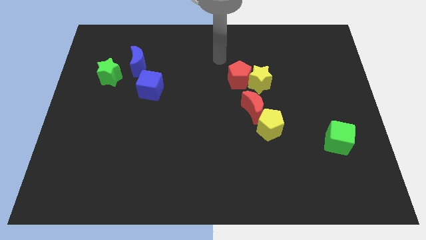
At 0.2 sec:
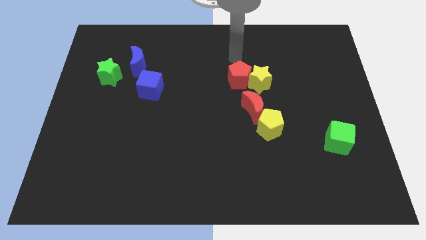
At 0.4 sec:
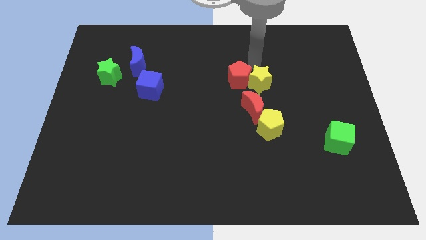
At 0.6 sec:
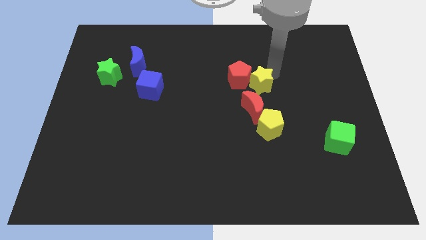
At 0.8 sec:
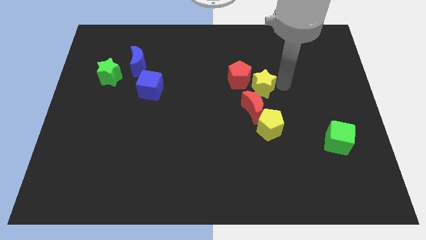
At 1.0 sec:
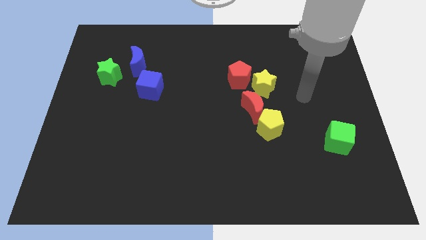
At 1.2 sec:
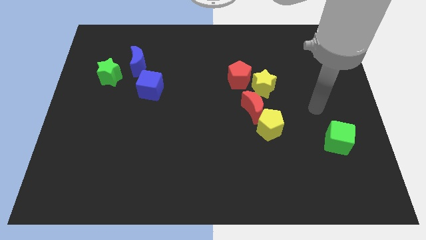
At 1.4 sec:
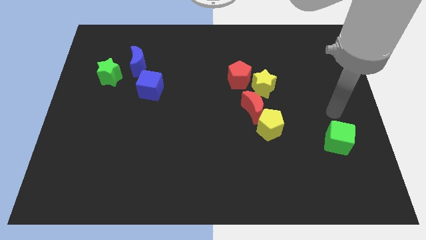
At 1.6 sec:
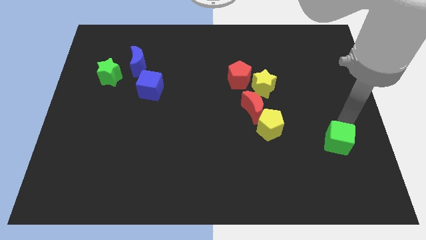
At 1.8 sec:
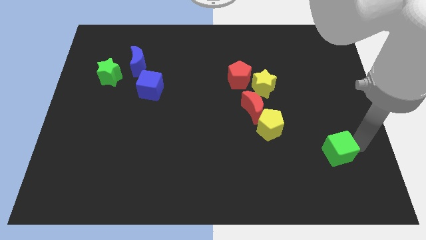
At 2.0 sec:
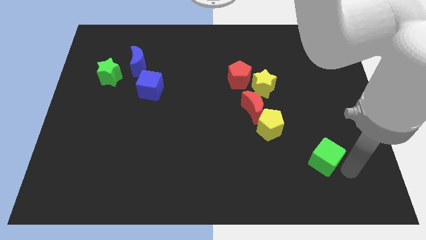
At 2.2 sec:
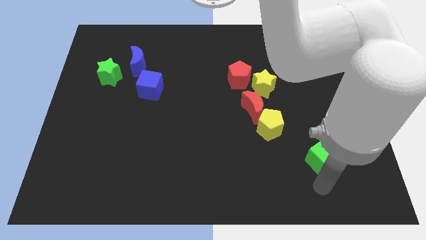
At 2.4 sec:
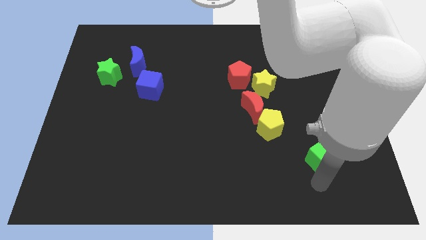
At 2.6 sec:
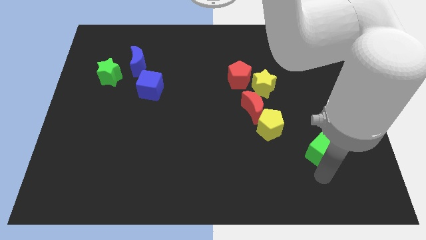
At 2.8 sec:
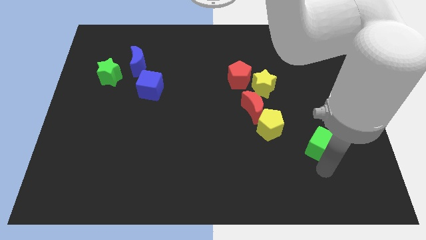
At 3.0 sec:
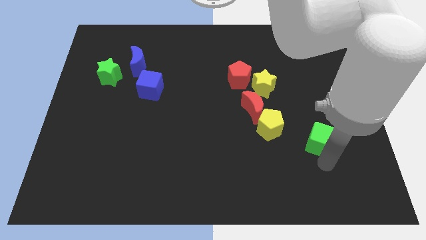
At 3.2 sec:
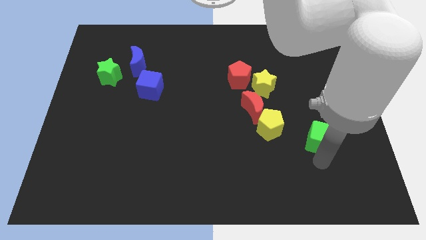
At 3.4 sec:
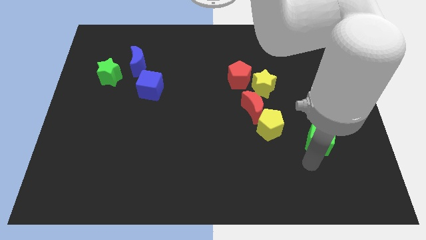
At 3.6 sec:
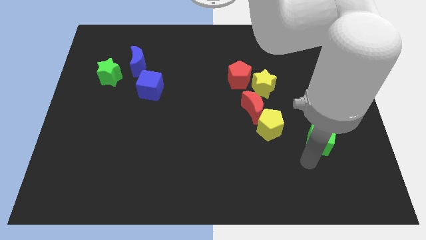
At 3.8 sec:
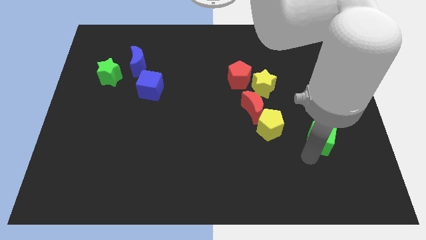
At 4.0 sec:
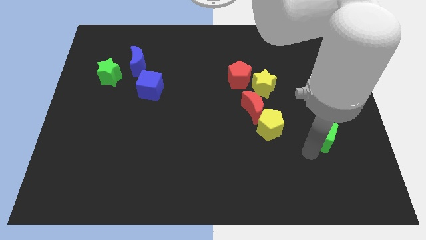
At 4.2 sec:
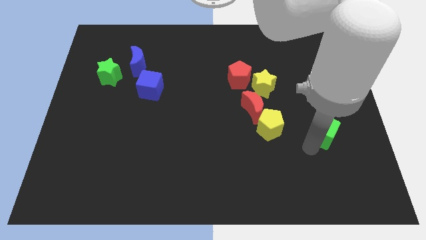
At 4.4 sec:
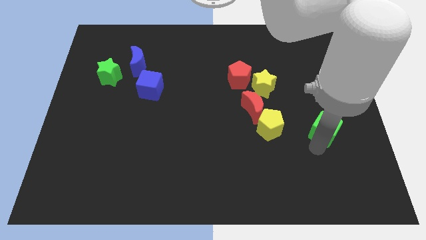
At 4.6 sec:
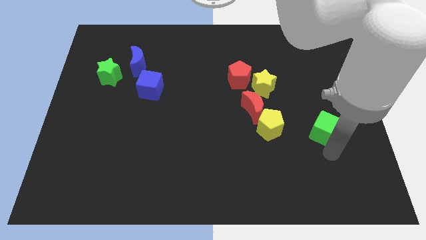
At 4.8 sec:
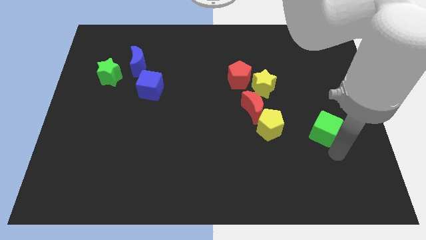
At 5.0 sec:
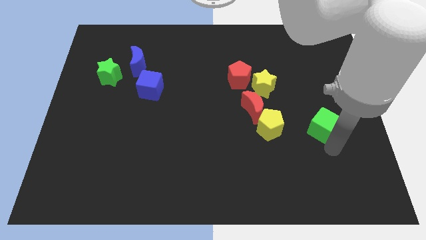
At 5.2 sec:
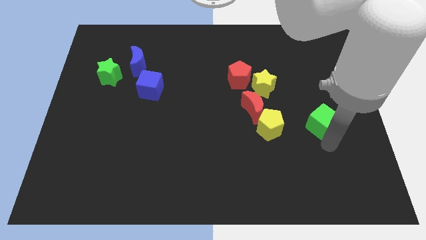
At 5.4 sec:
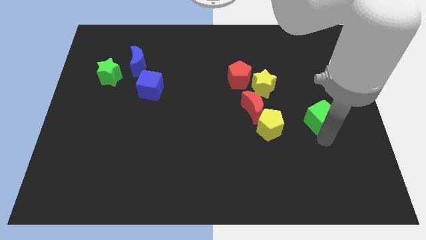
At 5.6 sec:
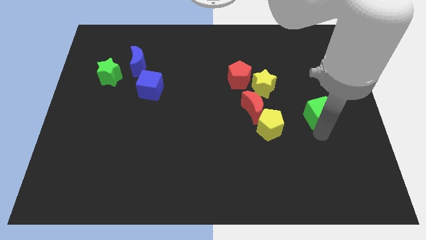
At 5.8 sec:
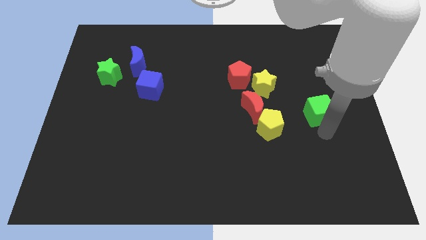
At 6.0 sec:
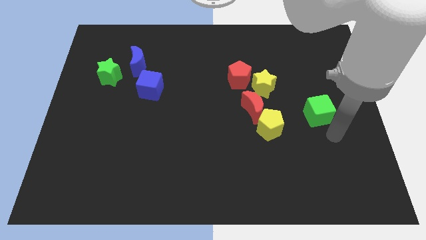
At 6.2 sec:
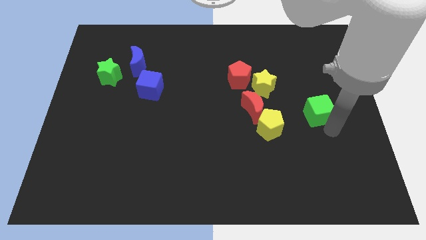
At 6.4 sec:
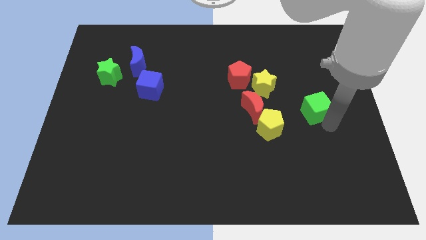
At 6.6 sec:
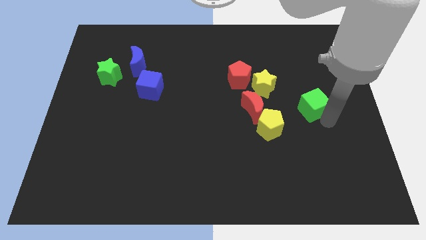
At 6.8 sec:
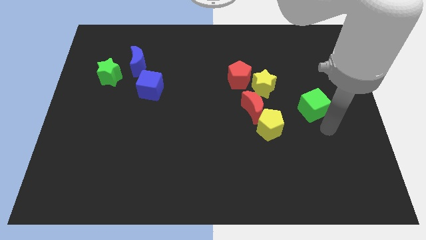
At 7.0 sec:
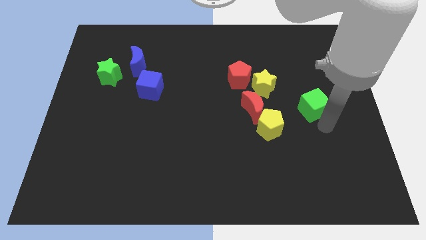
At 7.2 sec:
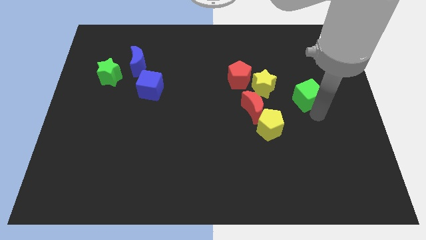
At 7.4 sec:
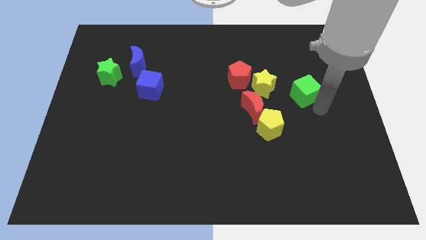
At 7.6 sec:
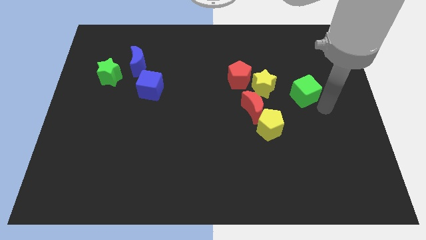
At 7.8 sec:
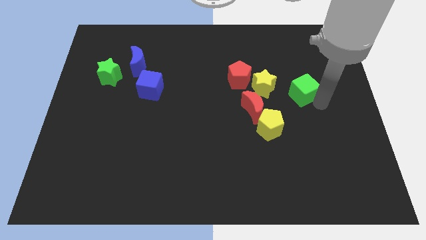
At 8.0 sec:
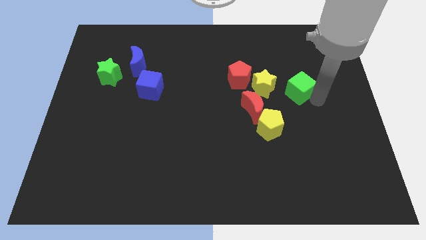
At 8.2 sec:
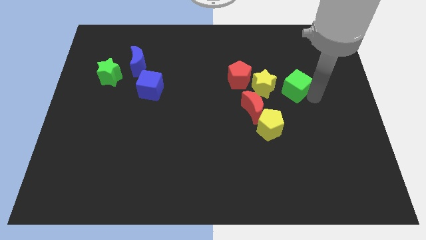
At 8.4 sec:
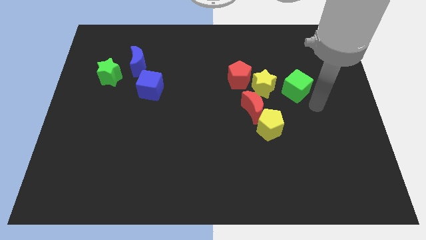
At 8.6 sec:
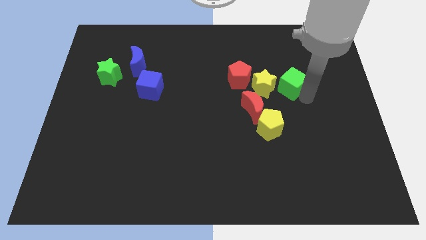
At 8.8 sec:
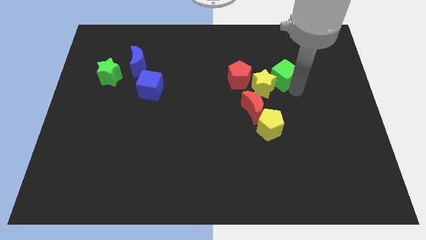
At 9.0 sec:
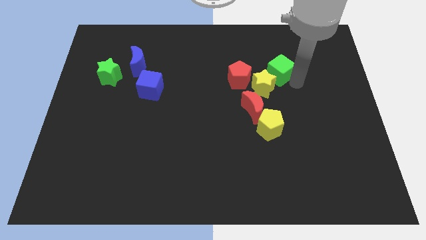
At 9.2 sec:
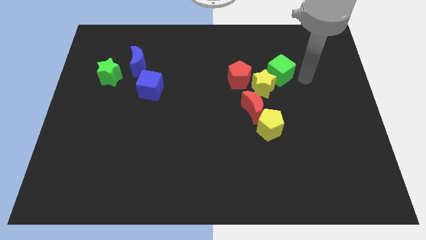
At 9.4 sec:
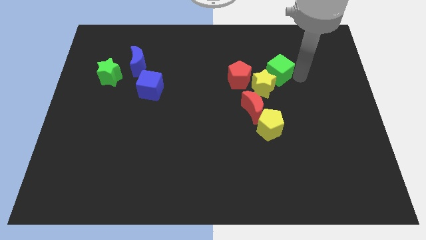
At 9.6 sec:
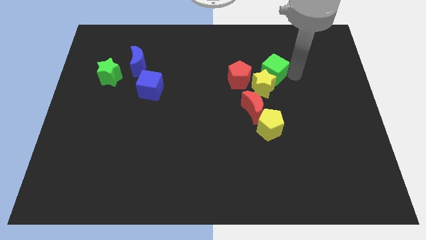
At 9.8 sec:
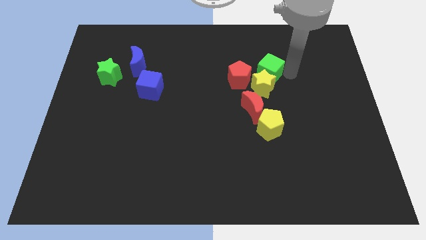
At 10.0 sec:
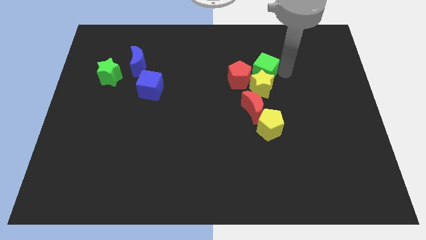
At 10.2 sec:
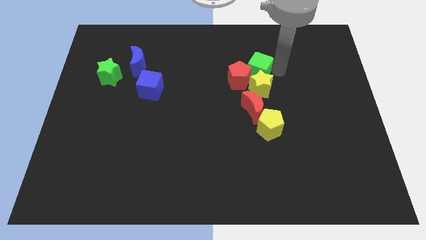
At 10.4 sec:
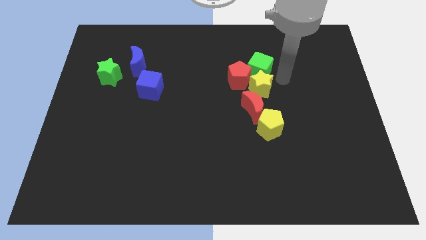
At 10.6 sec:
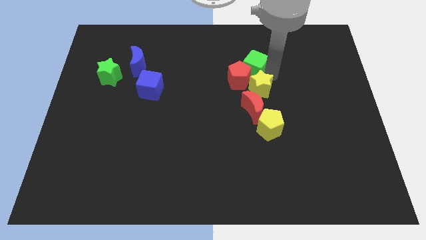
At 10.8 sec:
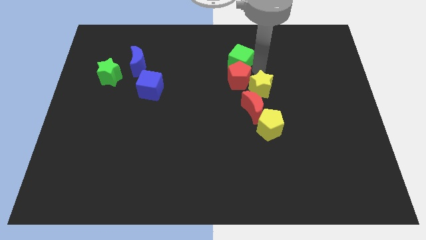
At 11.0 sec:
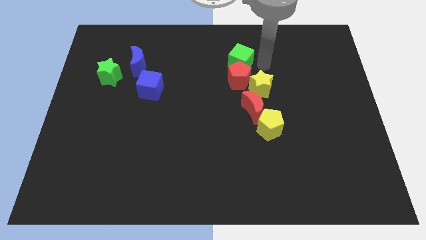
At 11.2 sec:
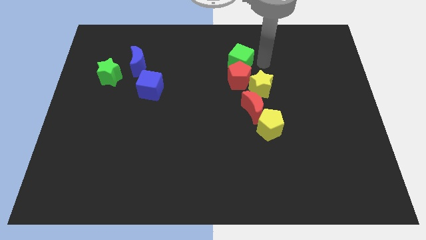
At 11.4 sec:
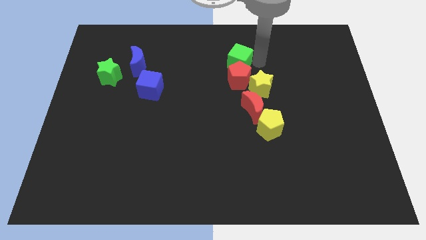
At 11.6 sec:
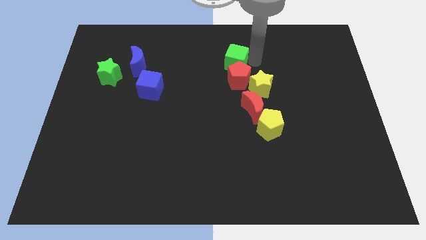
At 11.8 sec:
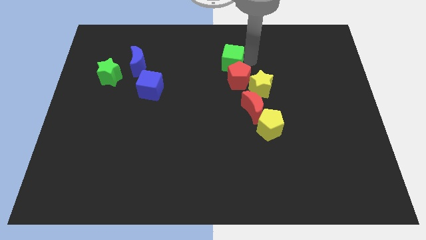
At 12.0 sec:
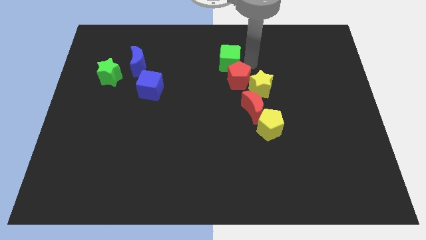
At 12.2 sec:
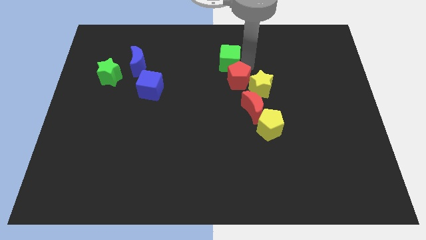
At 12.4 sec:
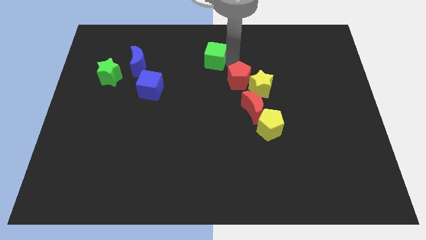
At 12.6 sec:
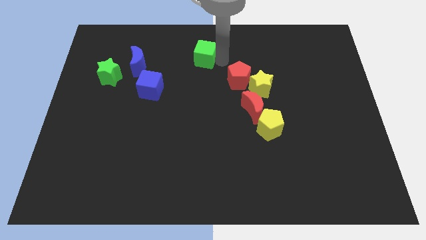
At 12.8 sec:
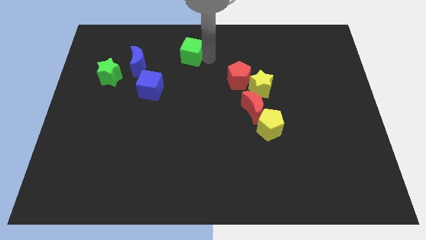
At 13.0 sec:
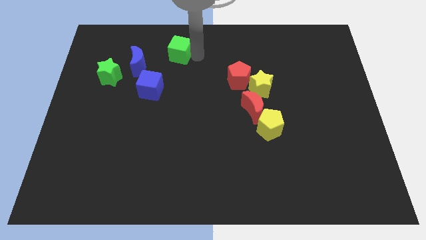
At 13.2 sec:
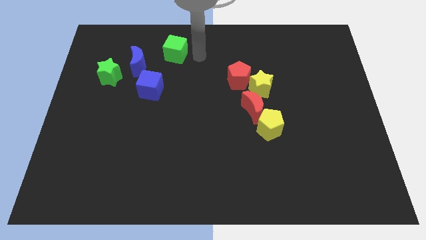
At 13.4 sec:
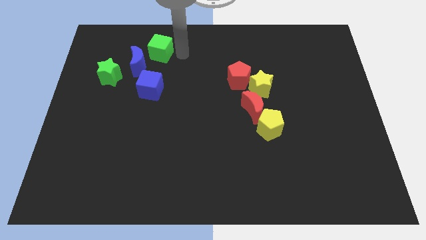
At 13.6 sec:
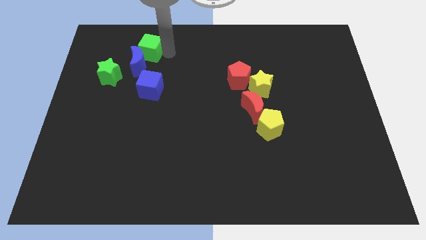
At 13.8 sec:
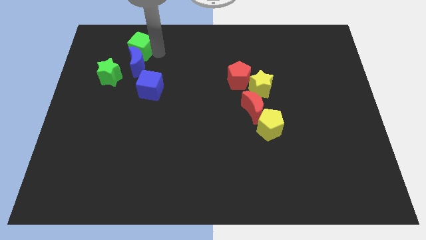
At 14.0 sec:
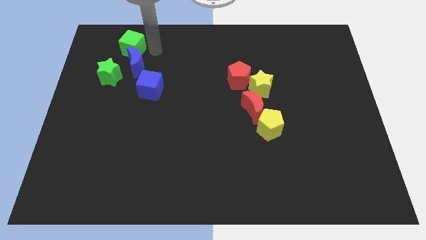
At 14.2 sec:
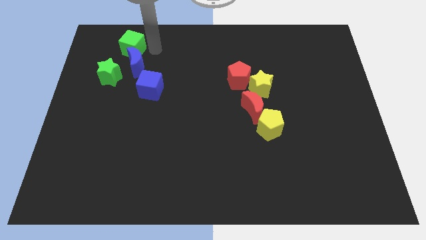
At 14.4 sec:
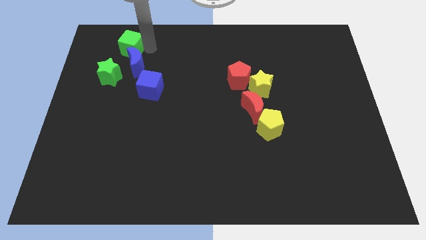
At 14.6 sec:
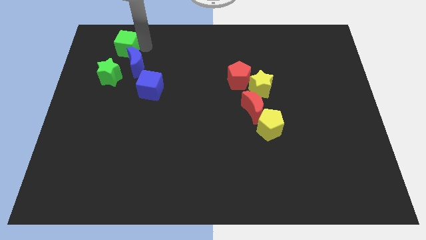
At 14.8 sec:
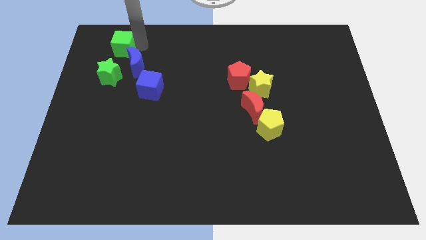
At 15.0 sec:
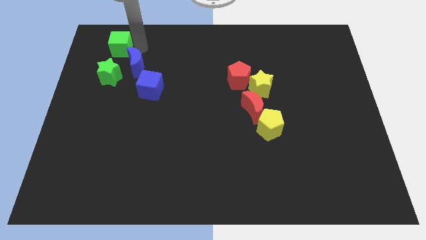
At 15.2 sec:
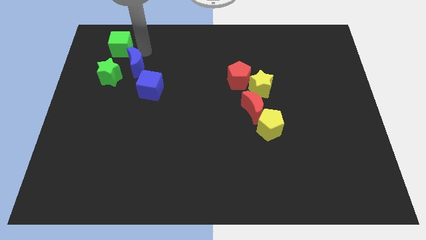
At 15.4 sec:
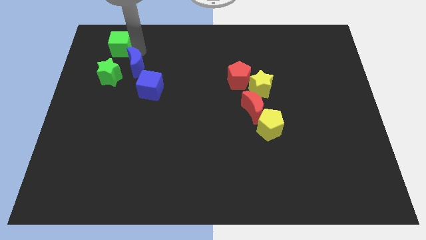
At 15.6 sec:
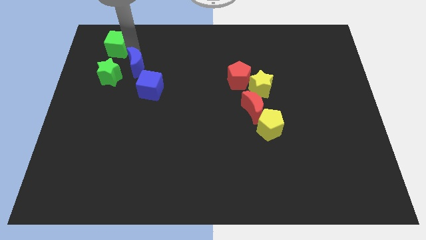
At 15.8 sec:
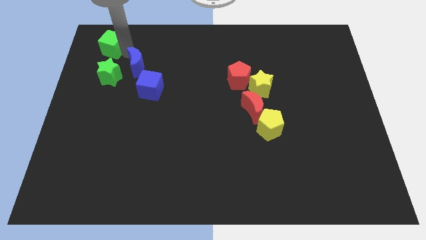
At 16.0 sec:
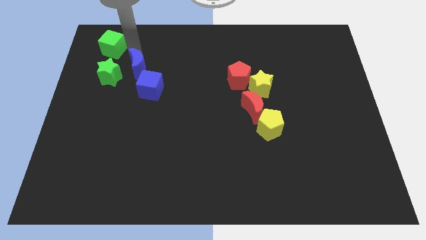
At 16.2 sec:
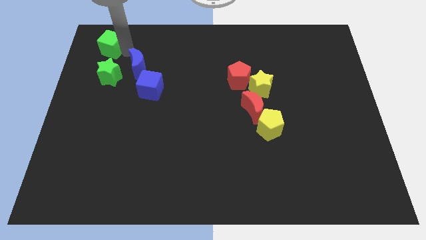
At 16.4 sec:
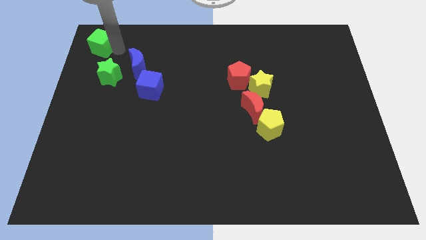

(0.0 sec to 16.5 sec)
put the green cube to the top left
